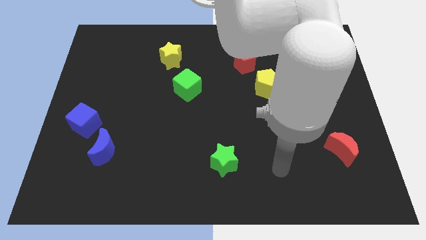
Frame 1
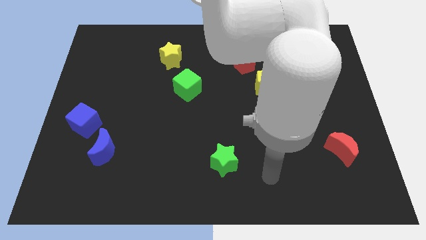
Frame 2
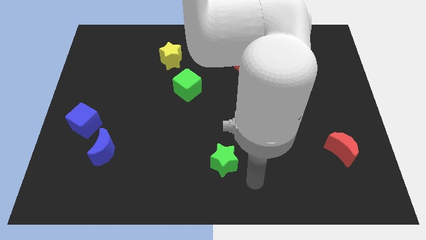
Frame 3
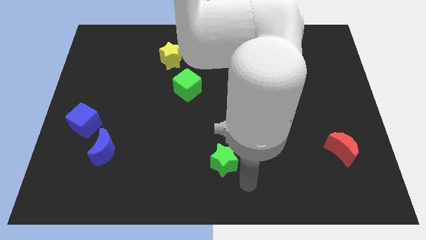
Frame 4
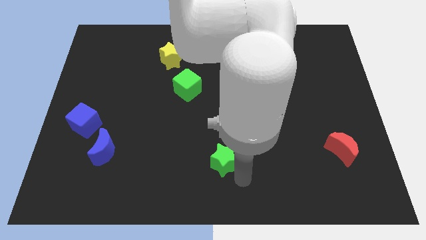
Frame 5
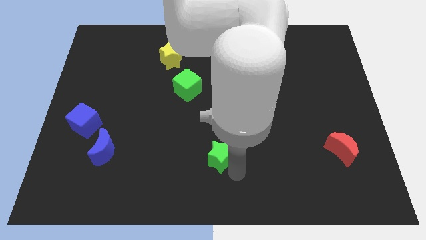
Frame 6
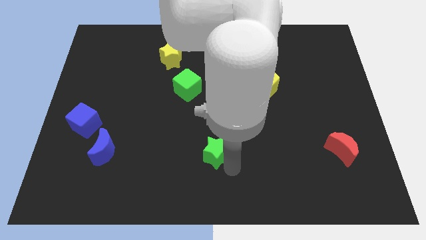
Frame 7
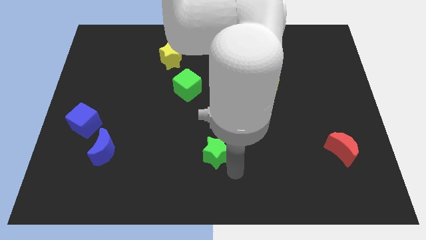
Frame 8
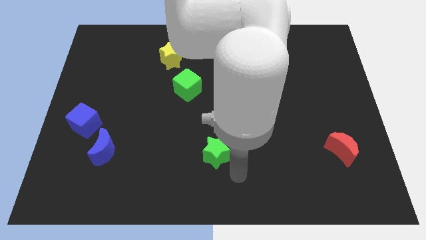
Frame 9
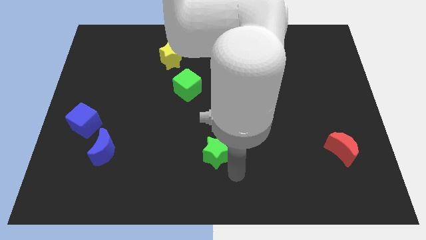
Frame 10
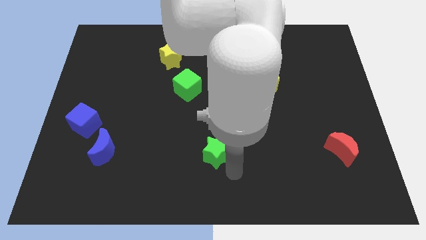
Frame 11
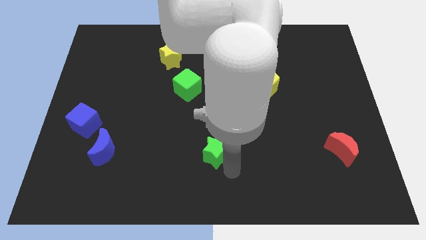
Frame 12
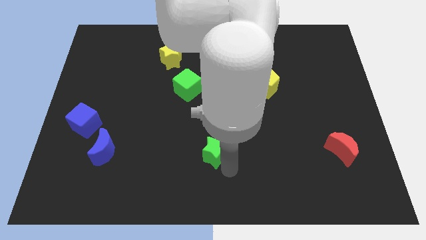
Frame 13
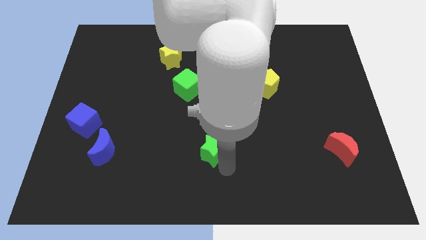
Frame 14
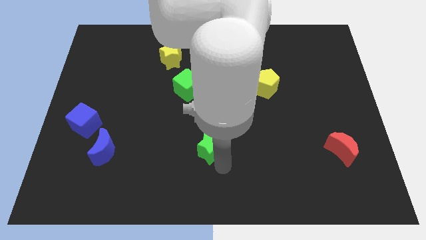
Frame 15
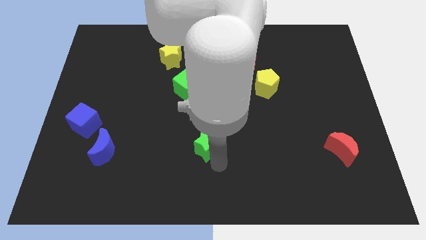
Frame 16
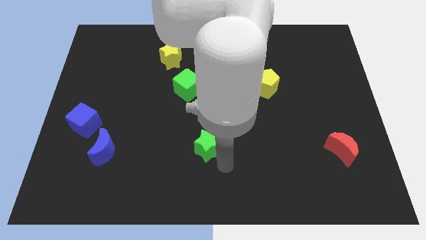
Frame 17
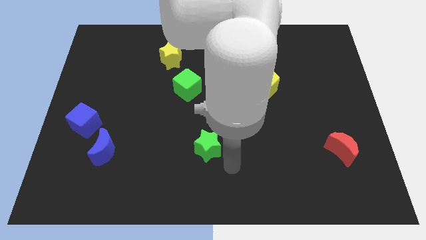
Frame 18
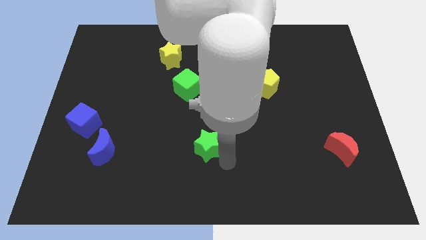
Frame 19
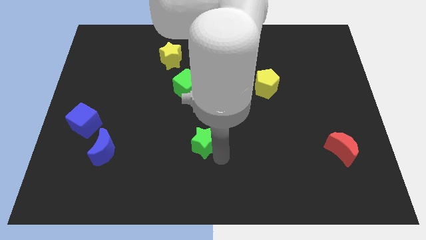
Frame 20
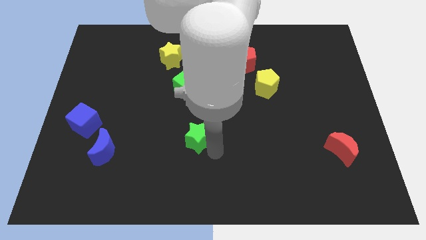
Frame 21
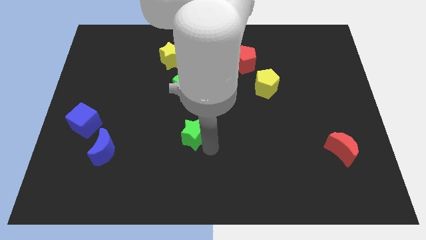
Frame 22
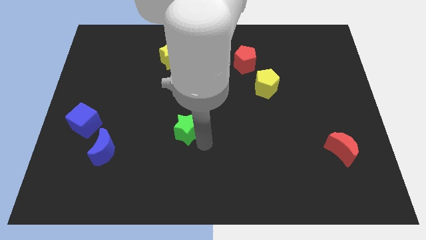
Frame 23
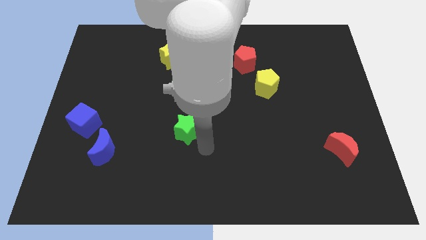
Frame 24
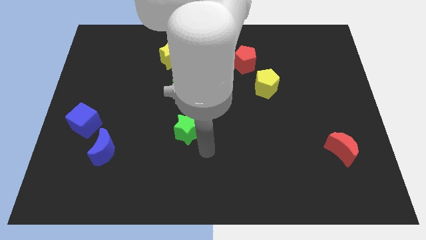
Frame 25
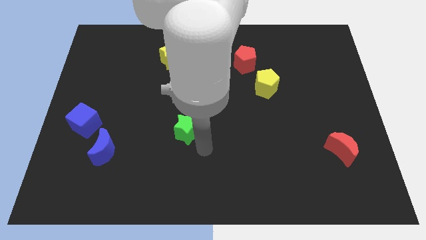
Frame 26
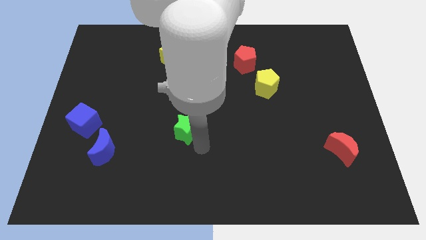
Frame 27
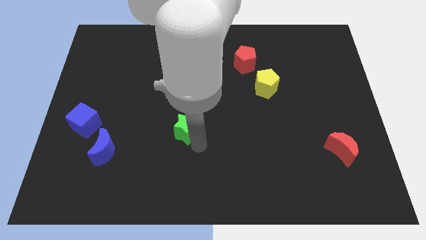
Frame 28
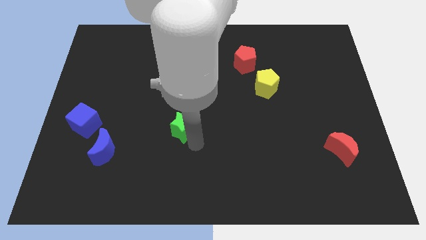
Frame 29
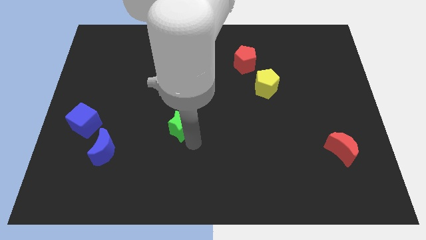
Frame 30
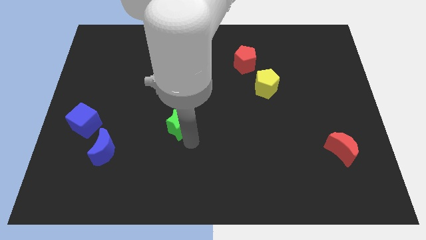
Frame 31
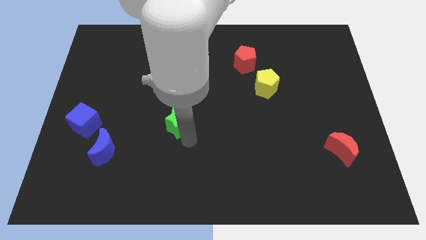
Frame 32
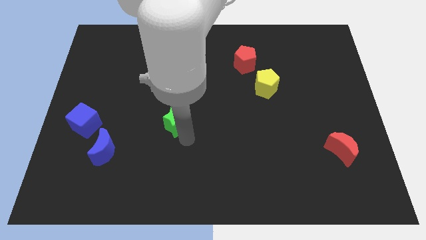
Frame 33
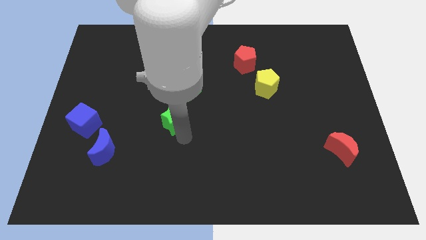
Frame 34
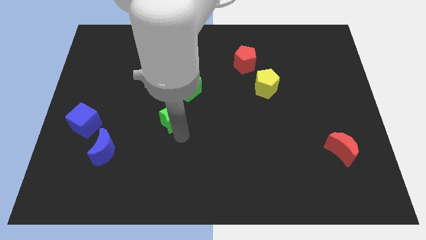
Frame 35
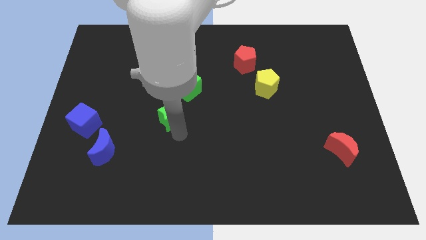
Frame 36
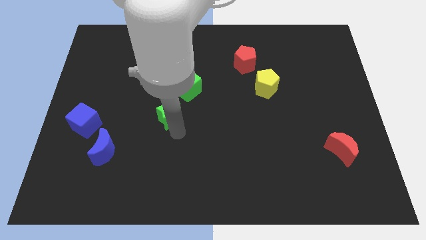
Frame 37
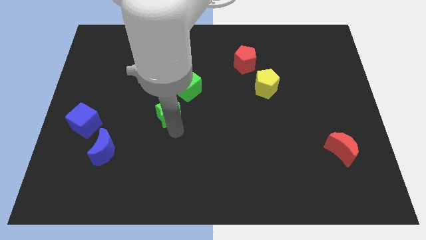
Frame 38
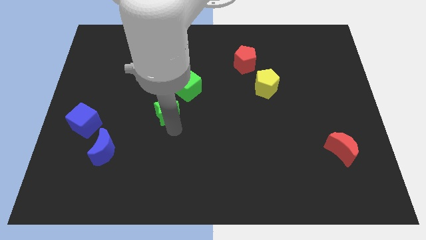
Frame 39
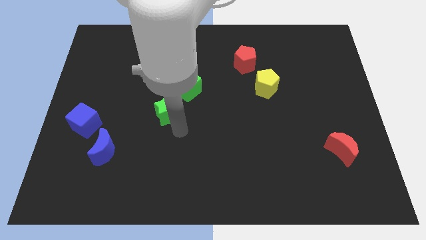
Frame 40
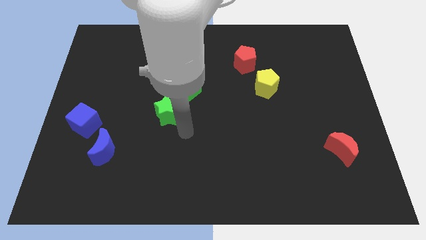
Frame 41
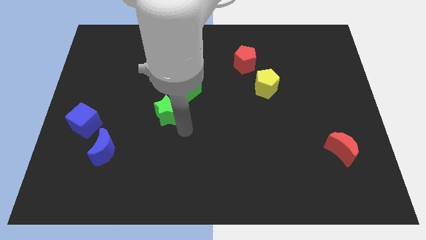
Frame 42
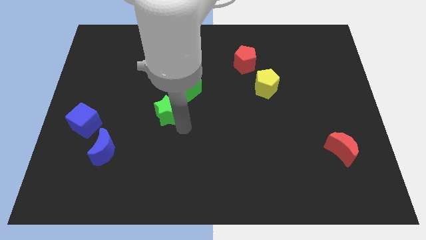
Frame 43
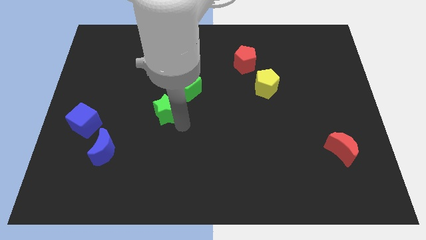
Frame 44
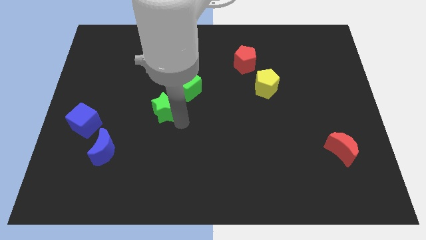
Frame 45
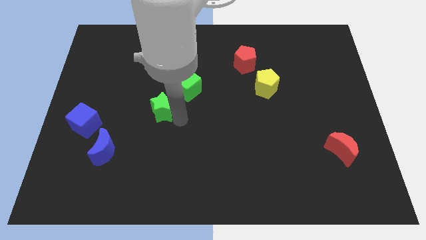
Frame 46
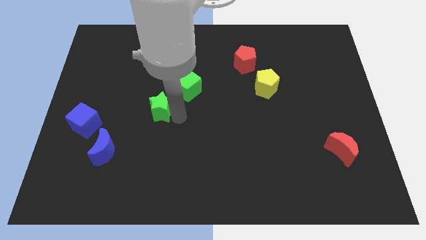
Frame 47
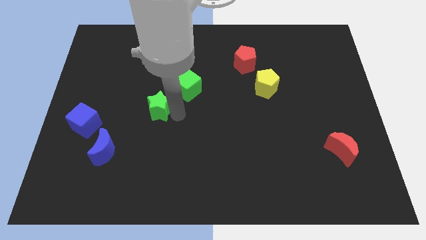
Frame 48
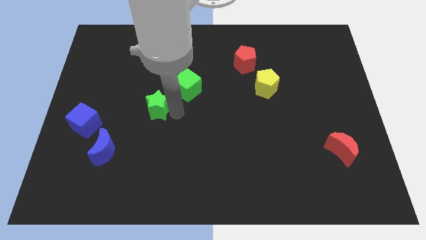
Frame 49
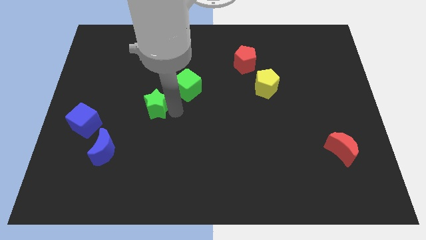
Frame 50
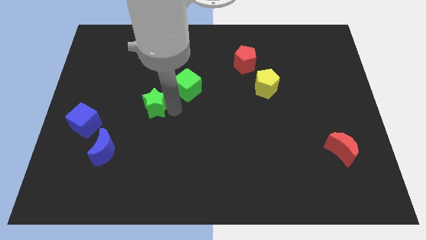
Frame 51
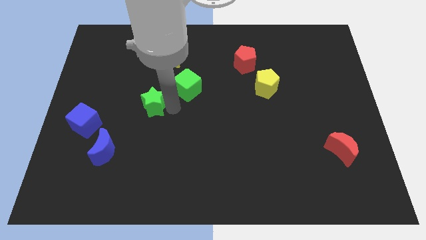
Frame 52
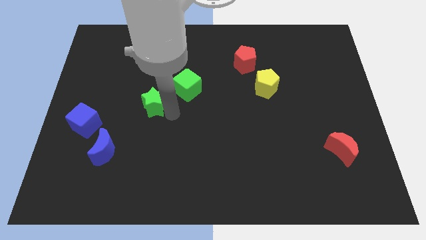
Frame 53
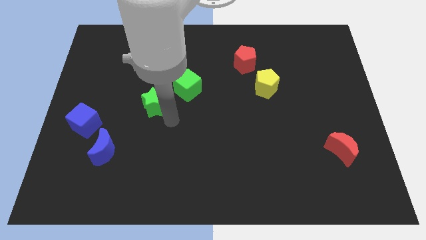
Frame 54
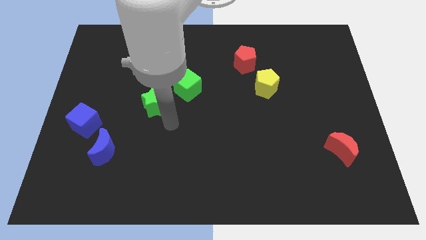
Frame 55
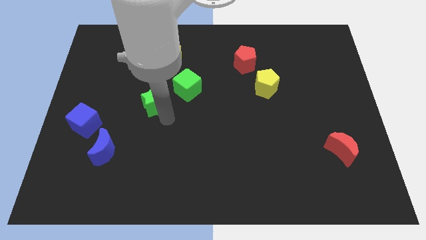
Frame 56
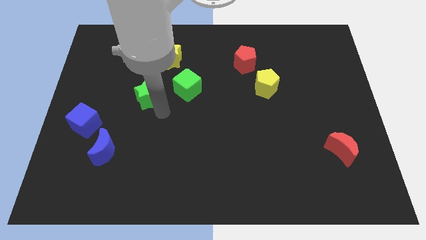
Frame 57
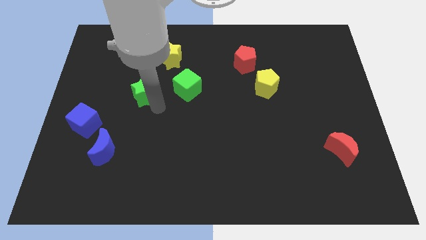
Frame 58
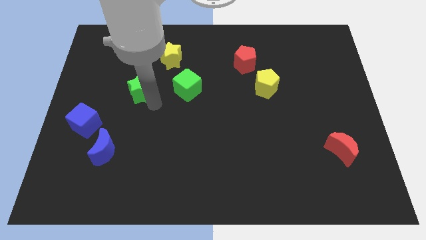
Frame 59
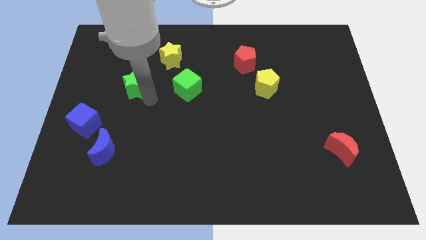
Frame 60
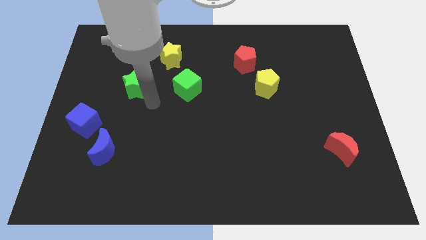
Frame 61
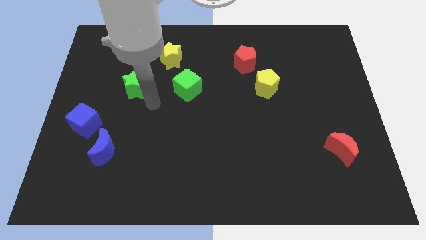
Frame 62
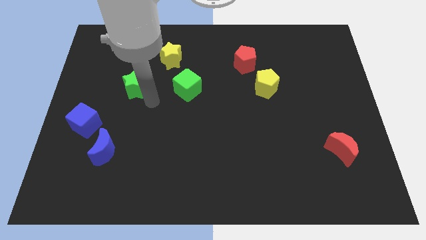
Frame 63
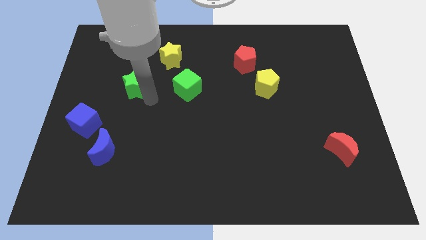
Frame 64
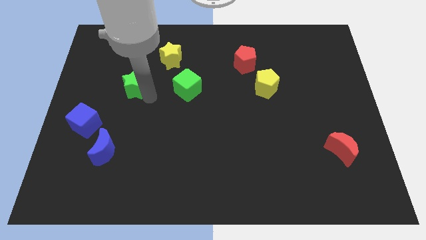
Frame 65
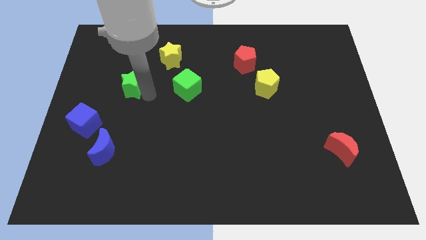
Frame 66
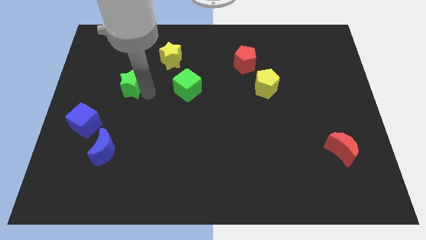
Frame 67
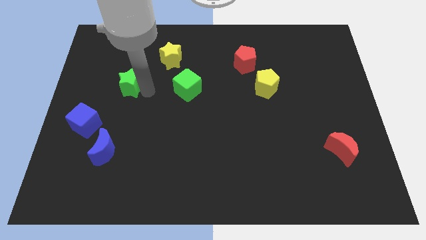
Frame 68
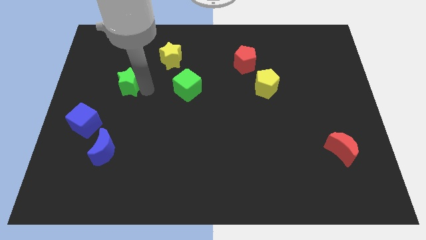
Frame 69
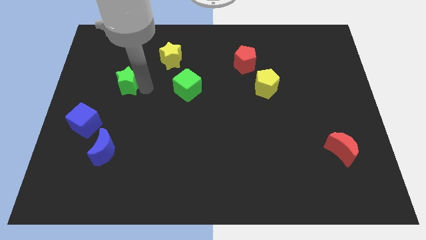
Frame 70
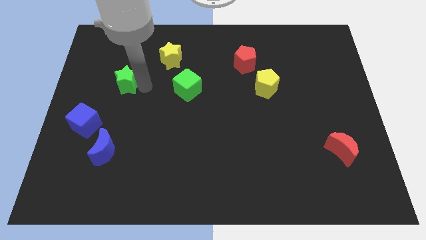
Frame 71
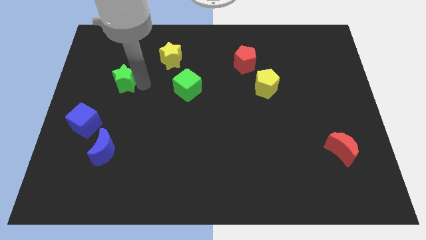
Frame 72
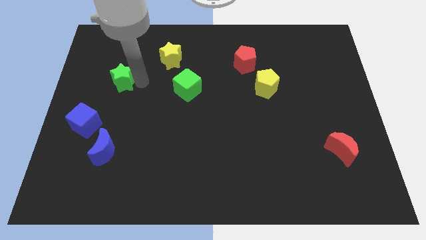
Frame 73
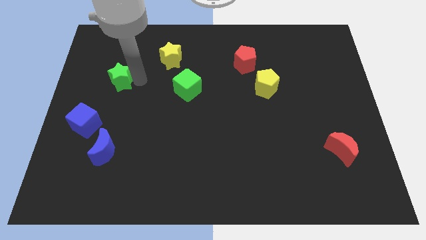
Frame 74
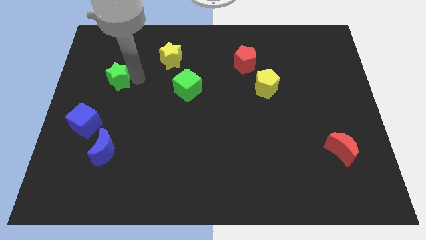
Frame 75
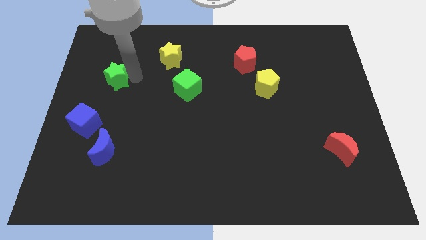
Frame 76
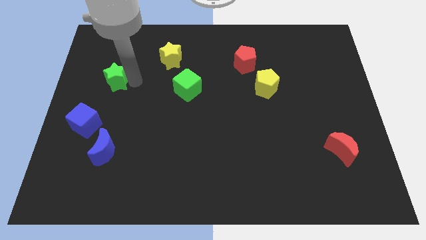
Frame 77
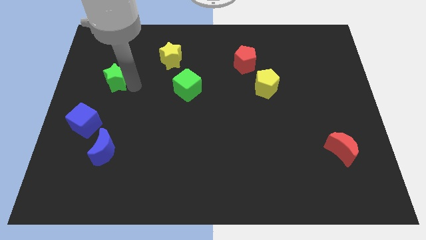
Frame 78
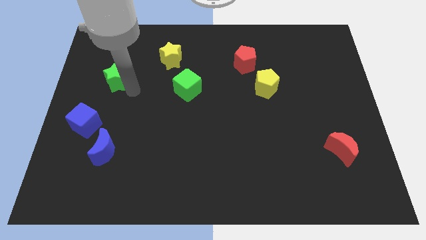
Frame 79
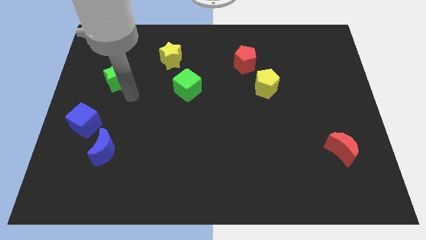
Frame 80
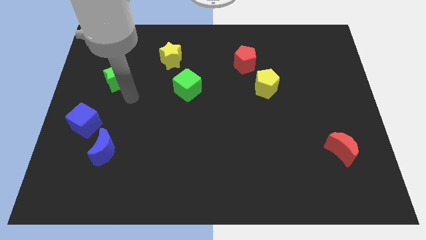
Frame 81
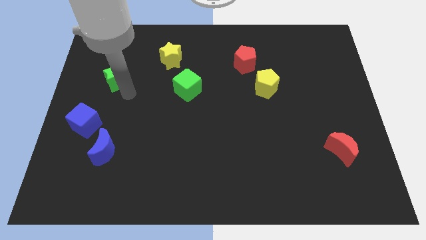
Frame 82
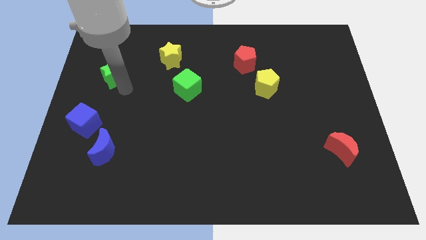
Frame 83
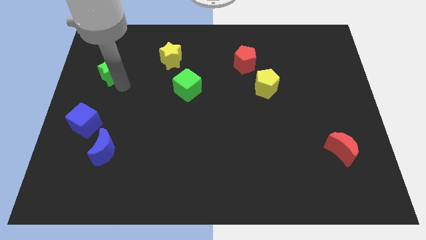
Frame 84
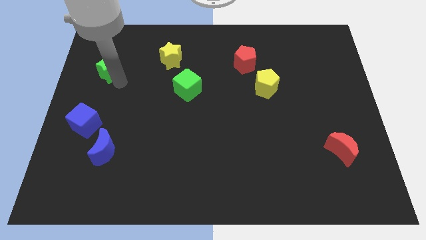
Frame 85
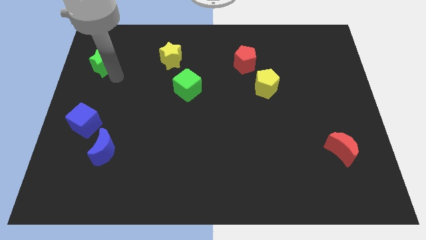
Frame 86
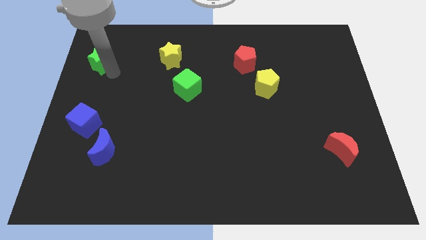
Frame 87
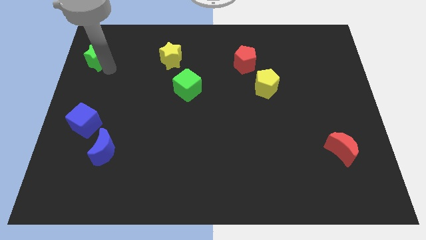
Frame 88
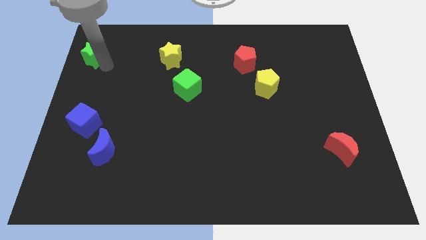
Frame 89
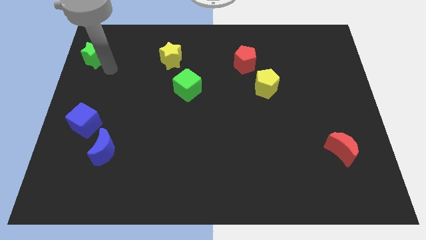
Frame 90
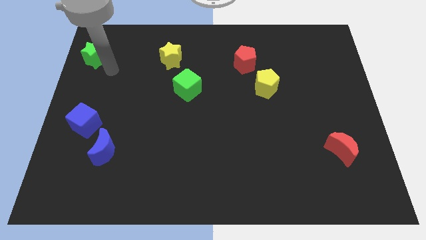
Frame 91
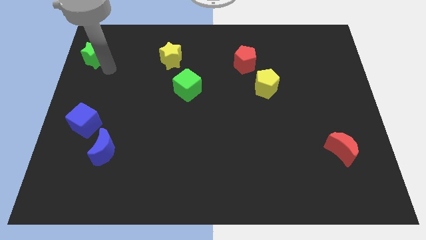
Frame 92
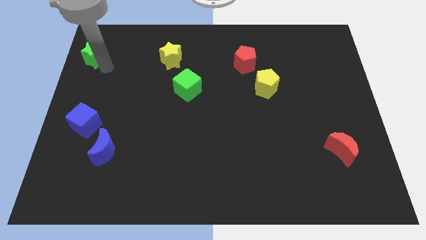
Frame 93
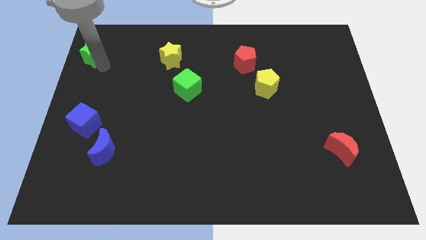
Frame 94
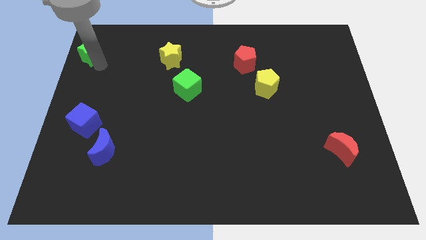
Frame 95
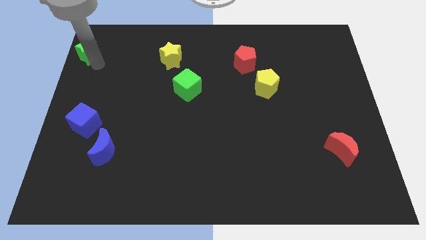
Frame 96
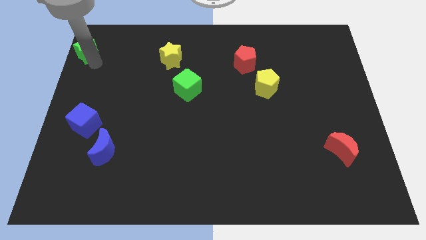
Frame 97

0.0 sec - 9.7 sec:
push the green star to the upper left corner
